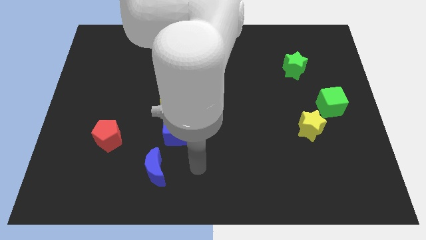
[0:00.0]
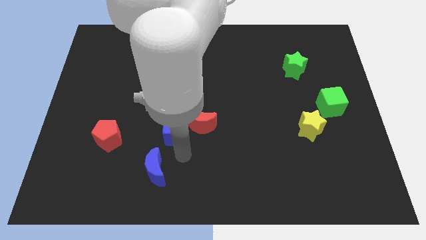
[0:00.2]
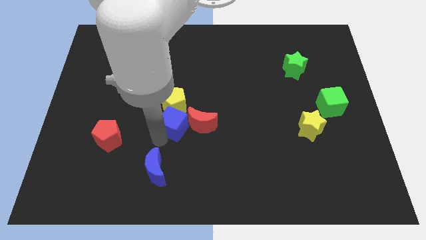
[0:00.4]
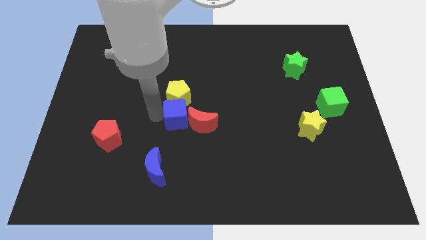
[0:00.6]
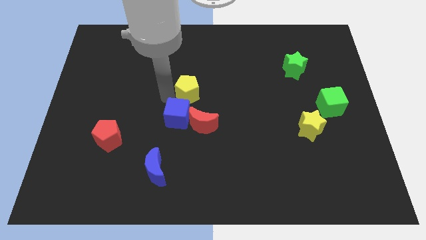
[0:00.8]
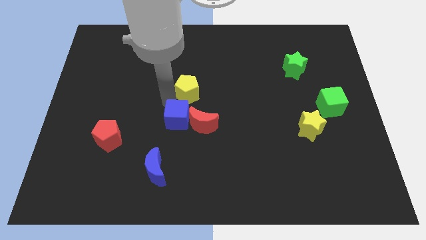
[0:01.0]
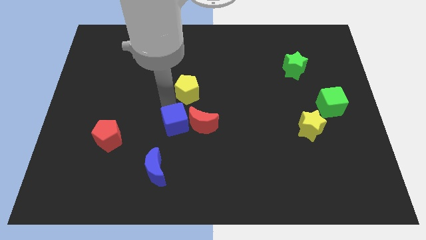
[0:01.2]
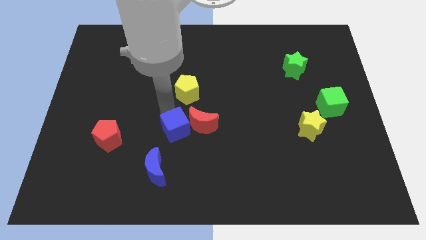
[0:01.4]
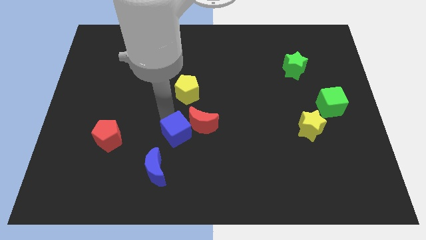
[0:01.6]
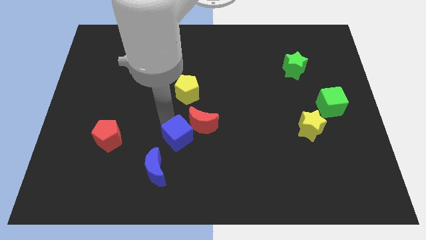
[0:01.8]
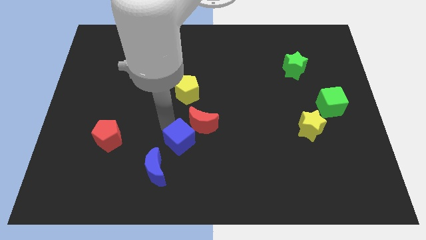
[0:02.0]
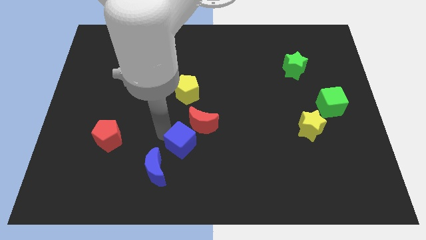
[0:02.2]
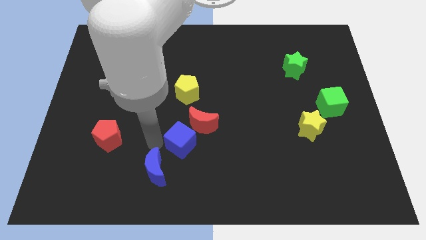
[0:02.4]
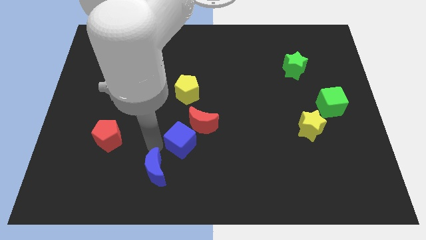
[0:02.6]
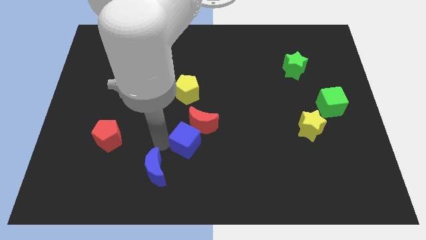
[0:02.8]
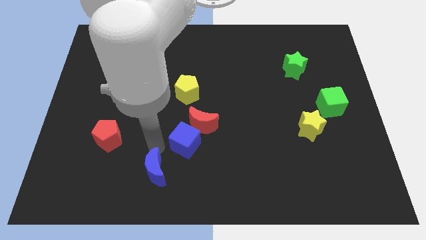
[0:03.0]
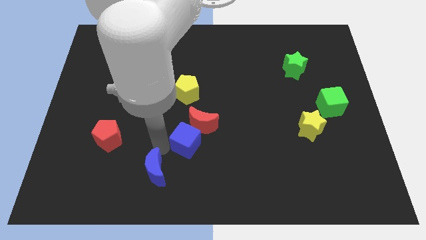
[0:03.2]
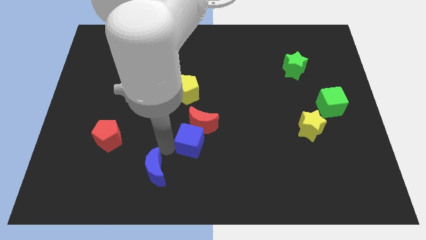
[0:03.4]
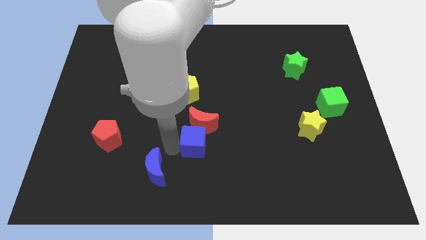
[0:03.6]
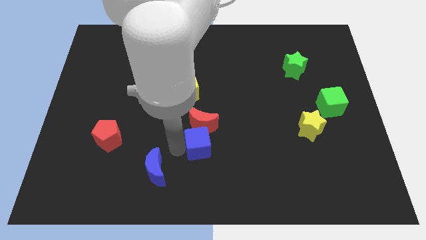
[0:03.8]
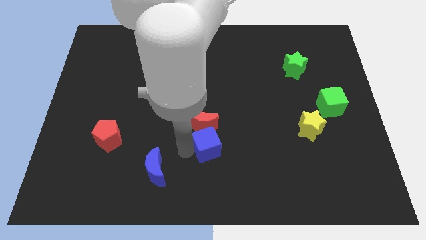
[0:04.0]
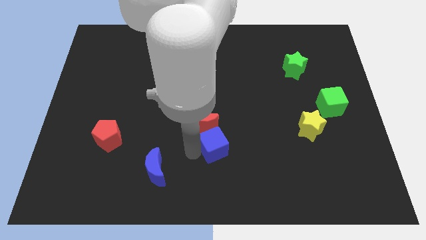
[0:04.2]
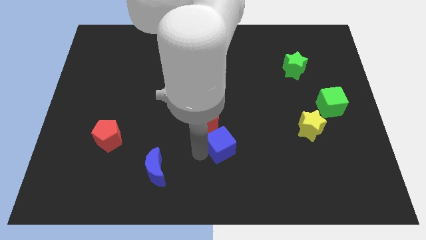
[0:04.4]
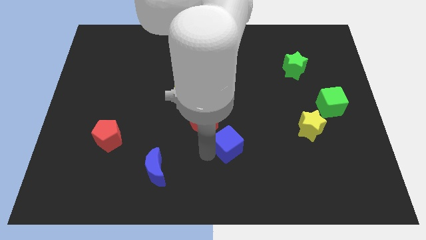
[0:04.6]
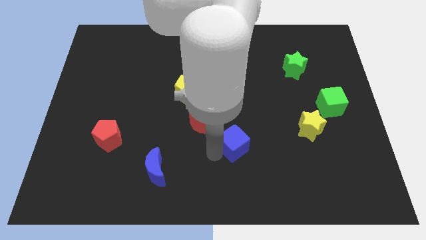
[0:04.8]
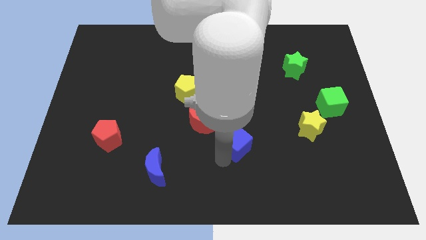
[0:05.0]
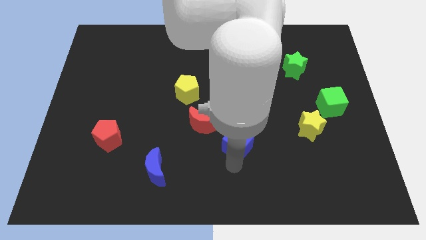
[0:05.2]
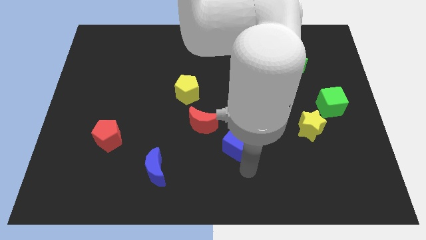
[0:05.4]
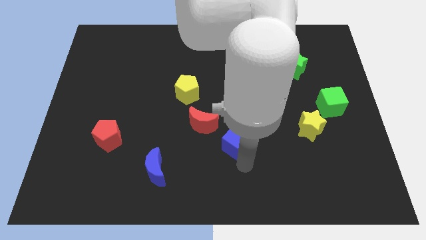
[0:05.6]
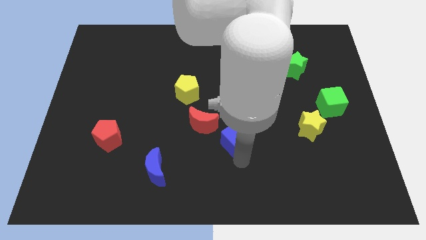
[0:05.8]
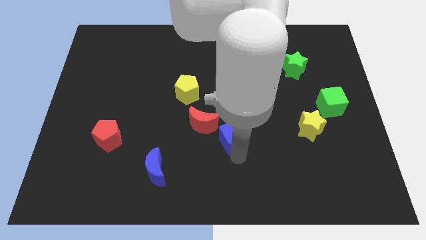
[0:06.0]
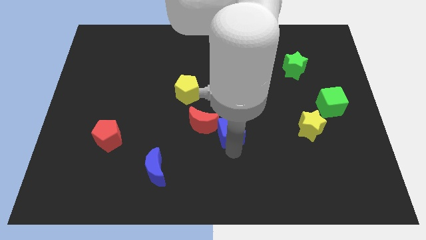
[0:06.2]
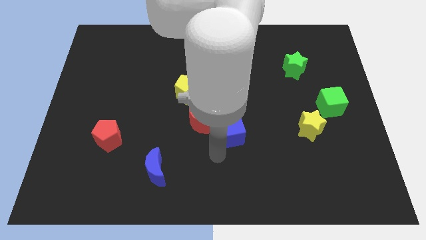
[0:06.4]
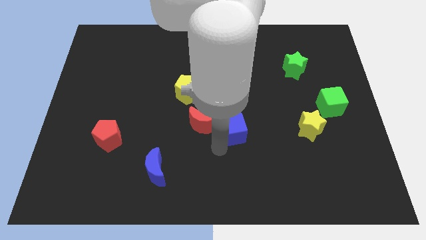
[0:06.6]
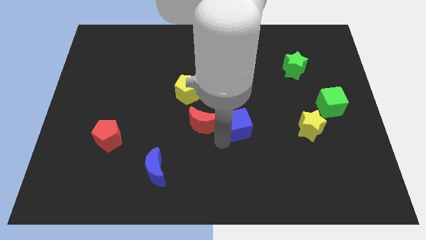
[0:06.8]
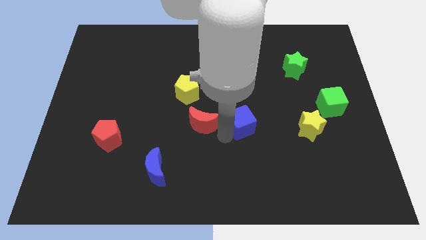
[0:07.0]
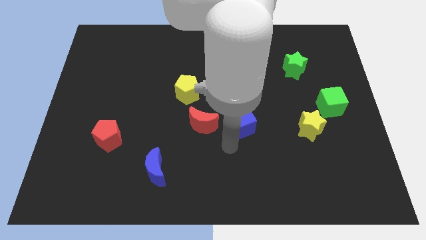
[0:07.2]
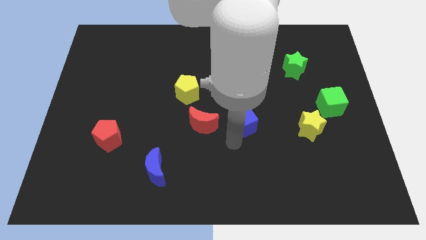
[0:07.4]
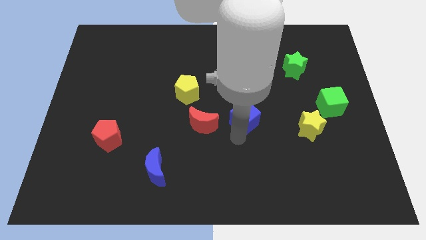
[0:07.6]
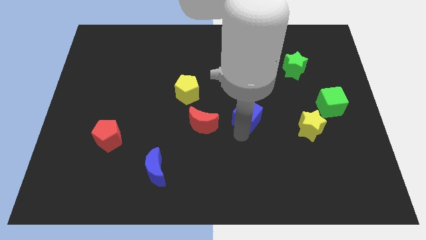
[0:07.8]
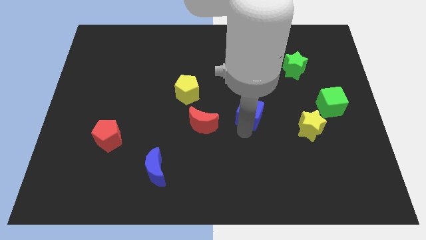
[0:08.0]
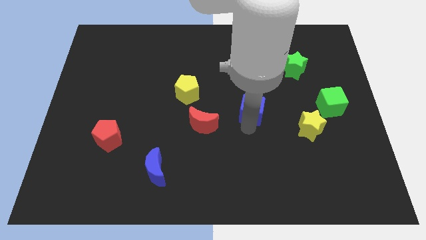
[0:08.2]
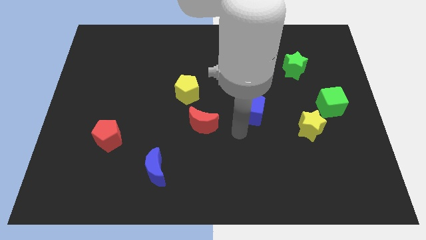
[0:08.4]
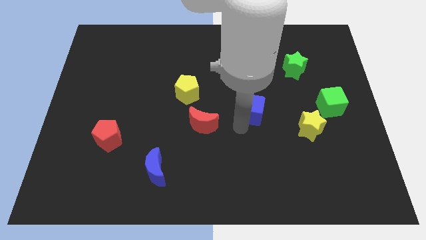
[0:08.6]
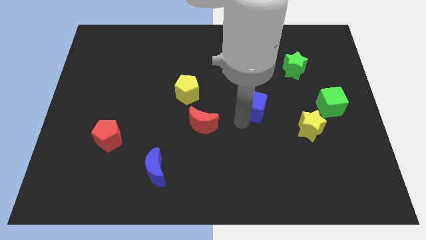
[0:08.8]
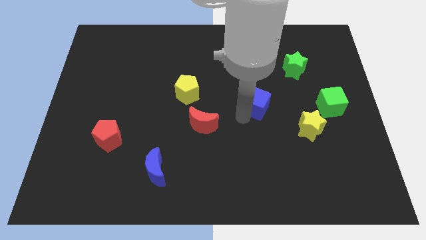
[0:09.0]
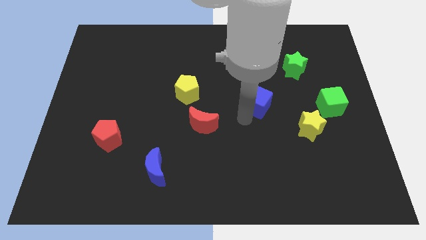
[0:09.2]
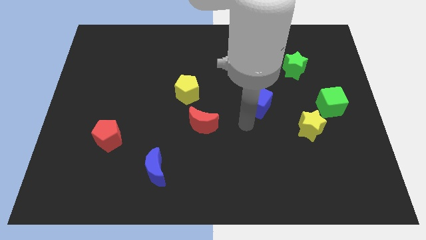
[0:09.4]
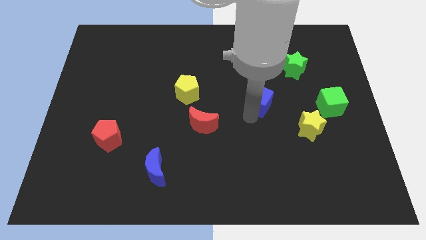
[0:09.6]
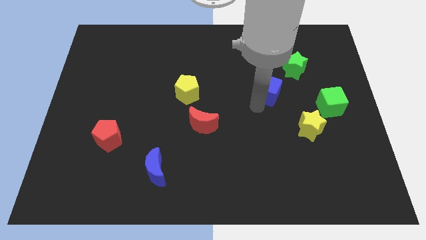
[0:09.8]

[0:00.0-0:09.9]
move the blue cube upwards and to the right diagonally

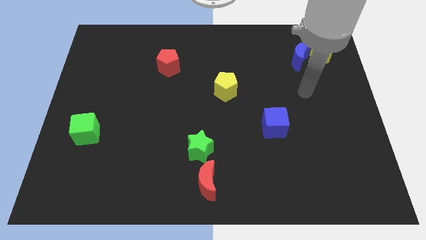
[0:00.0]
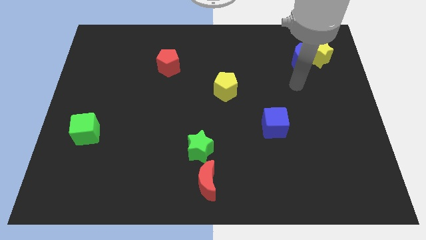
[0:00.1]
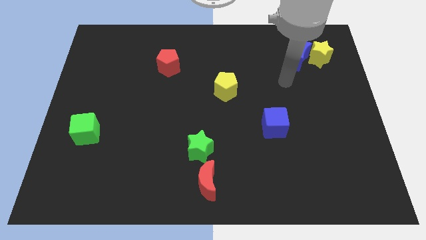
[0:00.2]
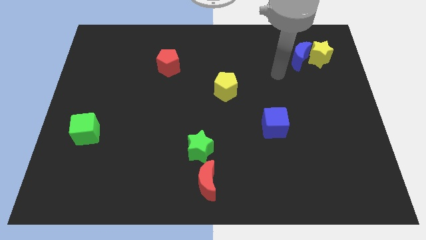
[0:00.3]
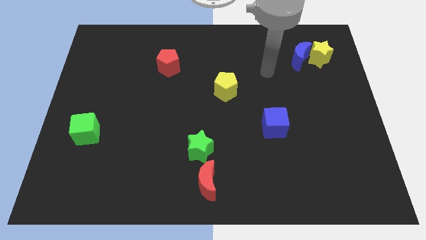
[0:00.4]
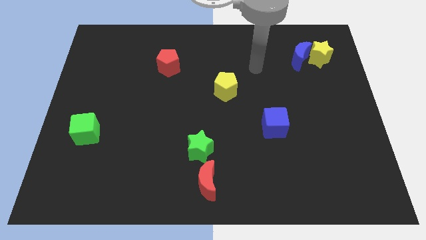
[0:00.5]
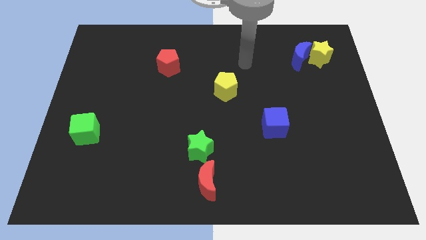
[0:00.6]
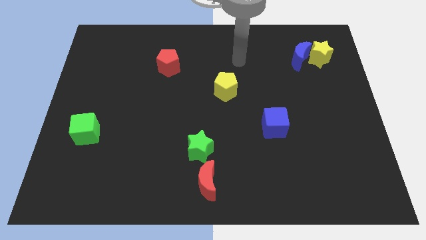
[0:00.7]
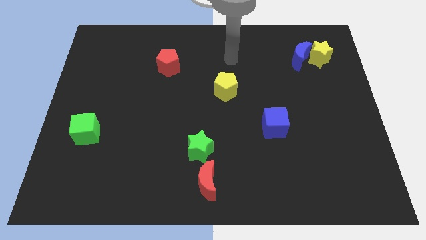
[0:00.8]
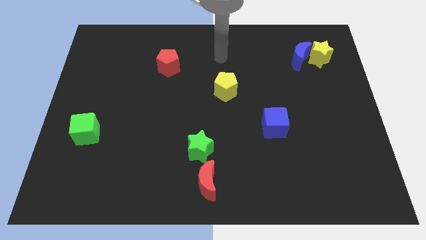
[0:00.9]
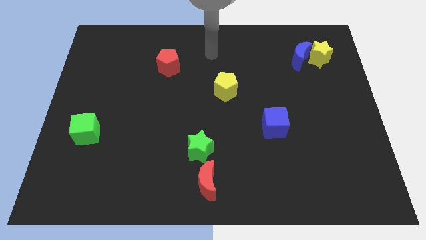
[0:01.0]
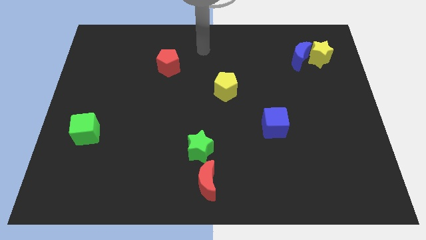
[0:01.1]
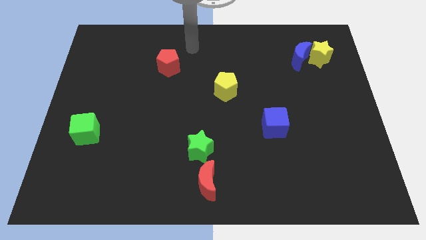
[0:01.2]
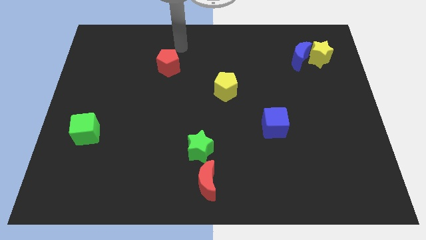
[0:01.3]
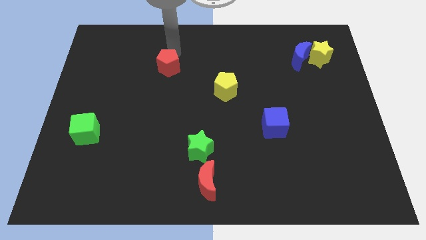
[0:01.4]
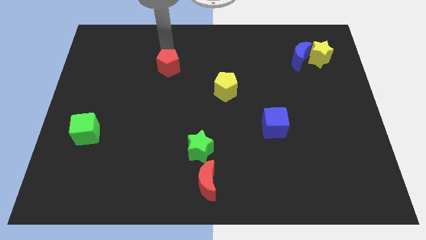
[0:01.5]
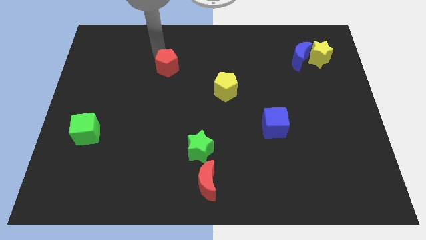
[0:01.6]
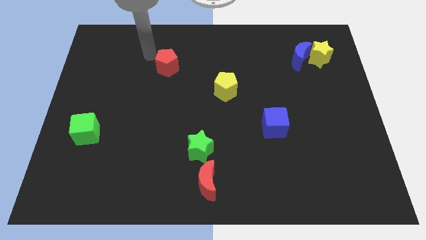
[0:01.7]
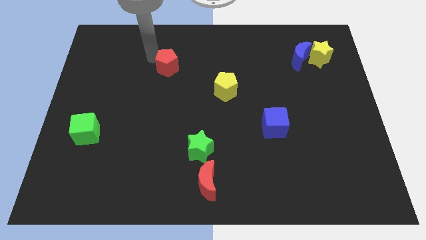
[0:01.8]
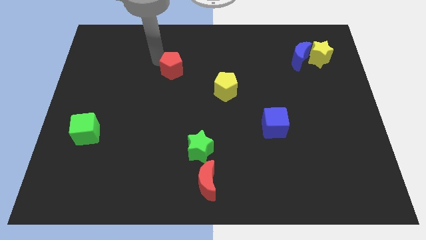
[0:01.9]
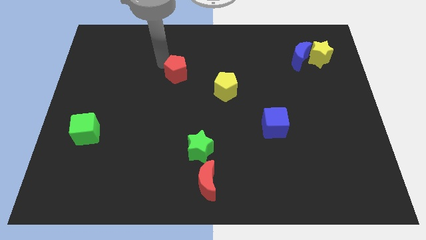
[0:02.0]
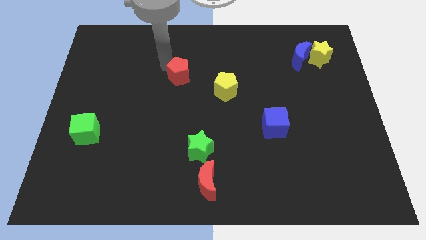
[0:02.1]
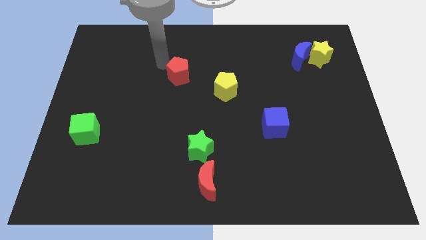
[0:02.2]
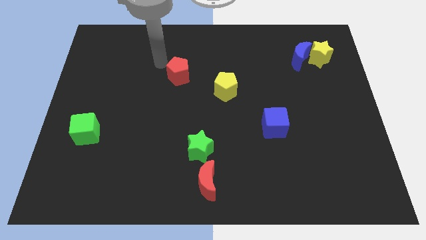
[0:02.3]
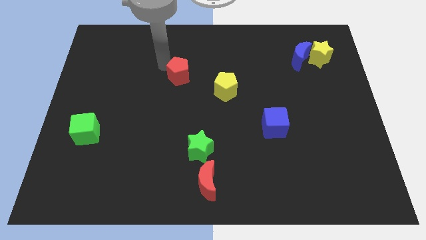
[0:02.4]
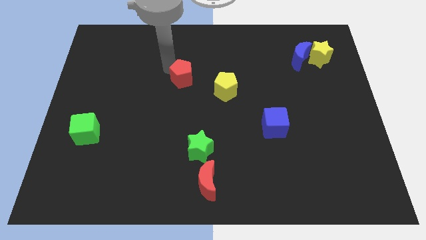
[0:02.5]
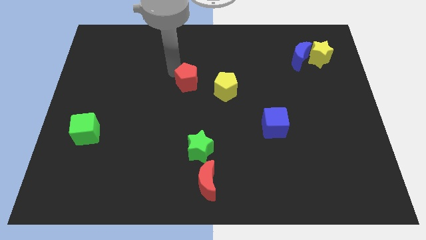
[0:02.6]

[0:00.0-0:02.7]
slightly slide the red pentagon diagonally down and right
